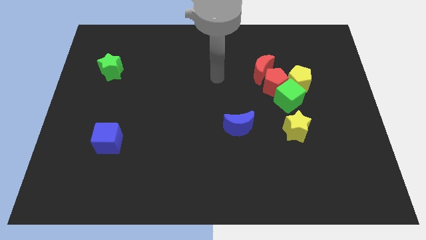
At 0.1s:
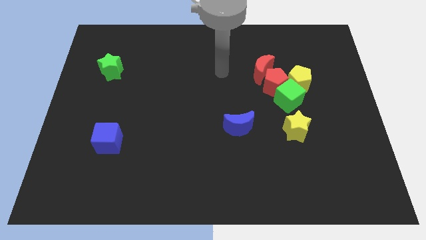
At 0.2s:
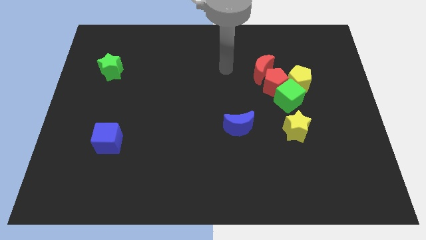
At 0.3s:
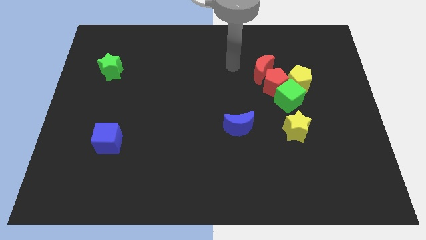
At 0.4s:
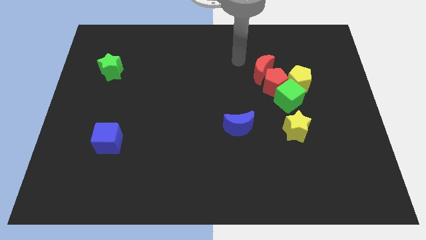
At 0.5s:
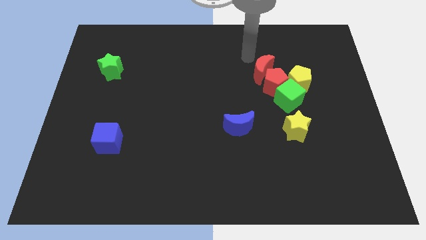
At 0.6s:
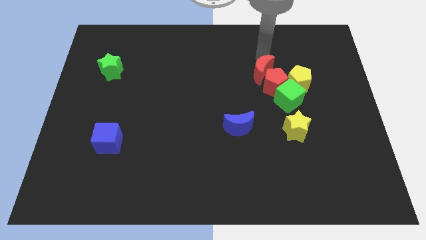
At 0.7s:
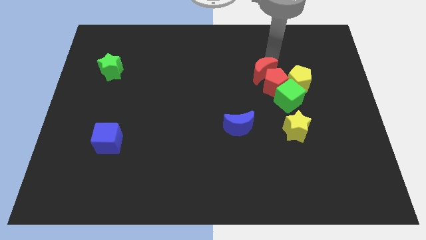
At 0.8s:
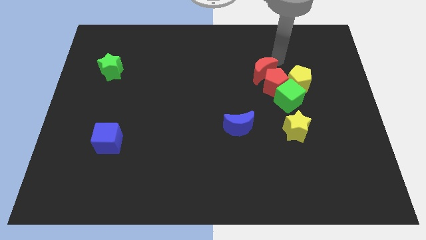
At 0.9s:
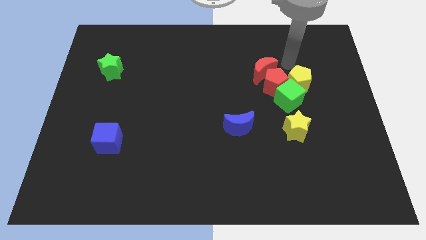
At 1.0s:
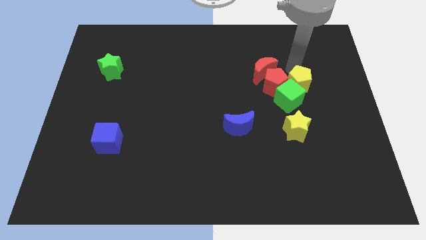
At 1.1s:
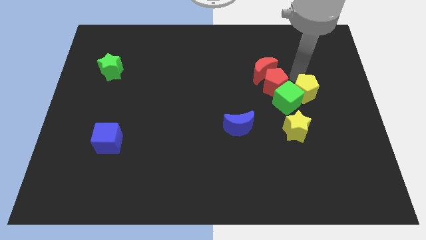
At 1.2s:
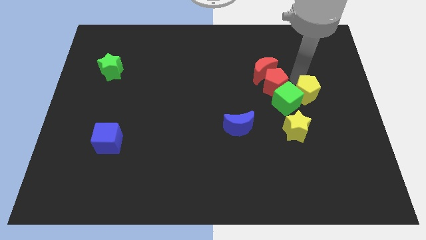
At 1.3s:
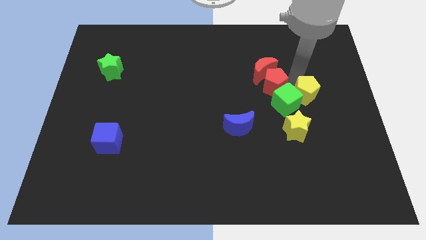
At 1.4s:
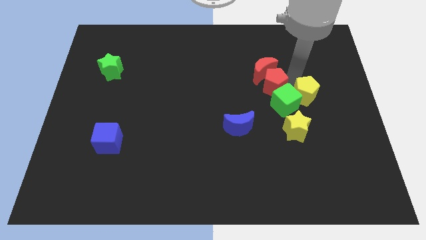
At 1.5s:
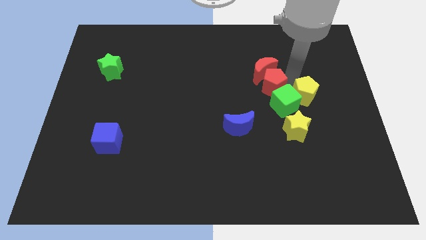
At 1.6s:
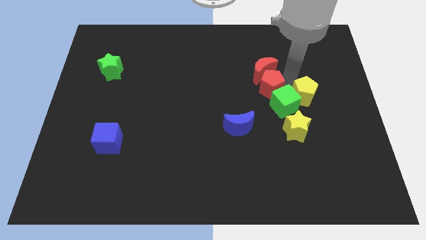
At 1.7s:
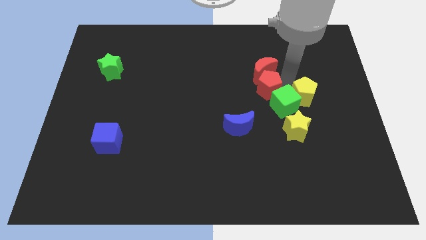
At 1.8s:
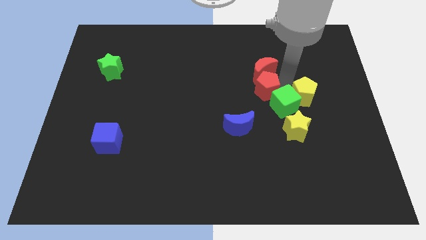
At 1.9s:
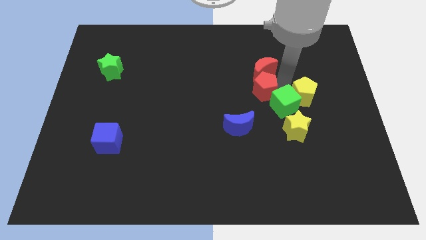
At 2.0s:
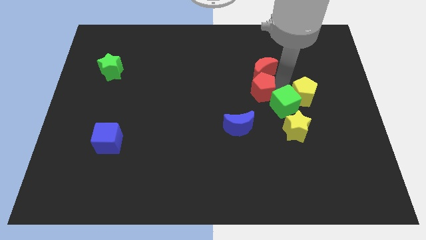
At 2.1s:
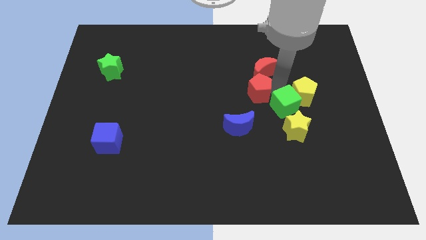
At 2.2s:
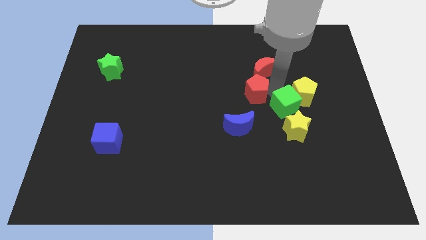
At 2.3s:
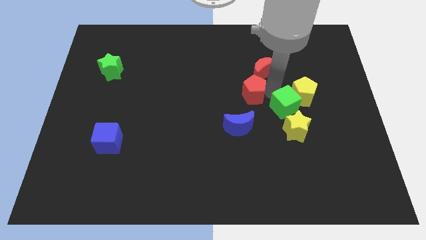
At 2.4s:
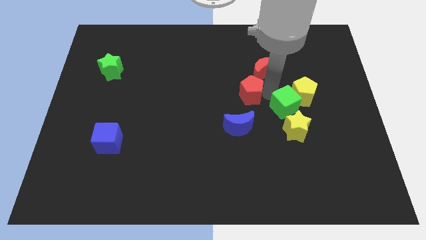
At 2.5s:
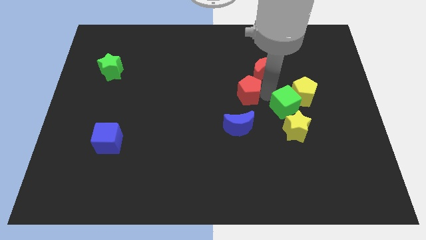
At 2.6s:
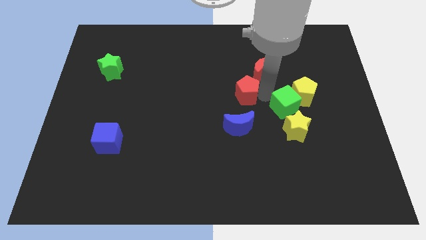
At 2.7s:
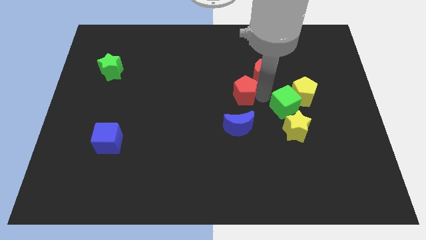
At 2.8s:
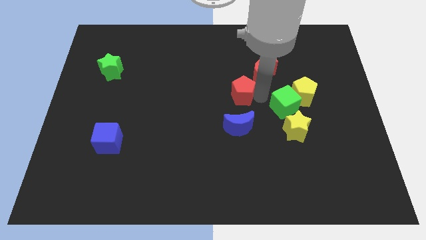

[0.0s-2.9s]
move the red pentagon away from the group

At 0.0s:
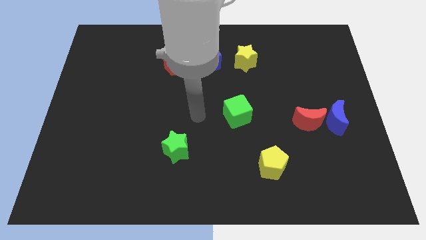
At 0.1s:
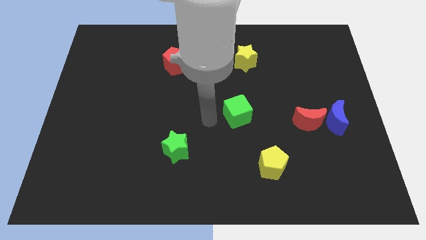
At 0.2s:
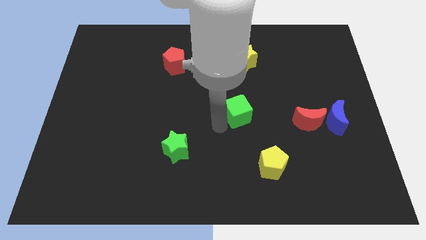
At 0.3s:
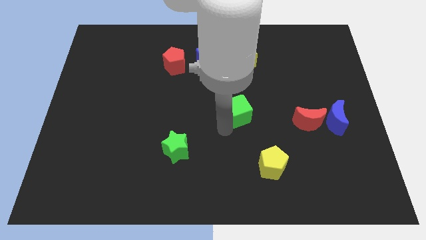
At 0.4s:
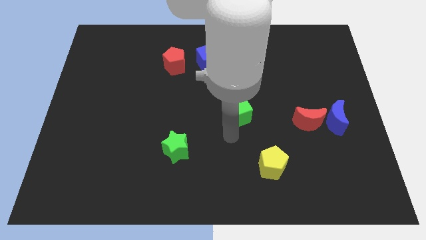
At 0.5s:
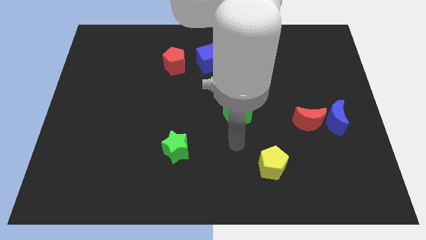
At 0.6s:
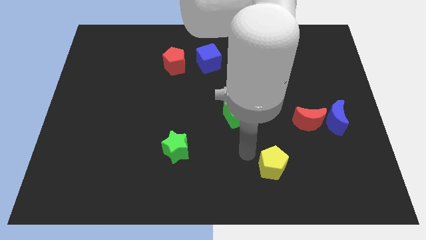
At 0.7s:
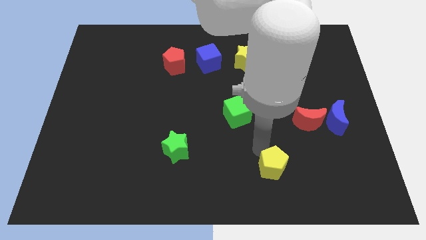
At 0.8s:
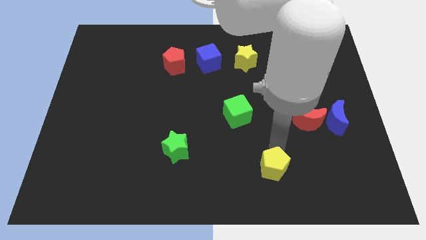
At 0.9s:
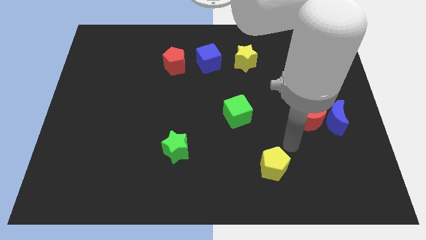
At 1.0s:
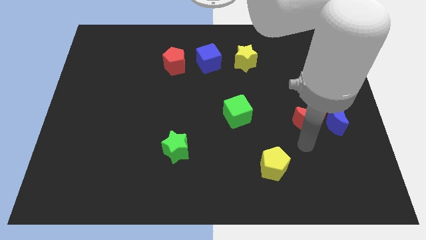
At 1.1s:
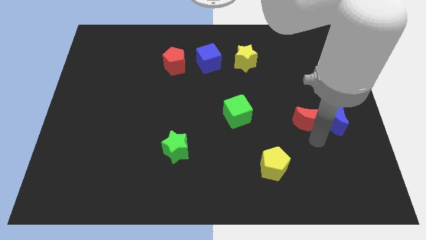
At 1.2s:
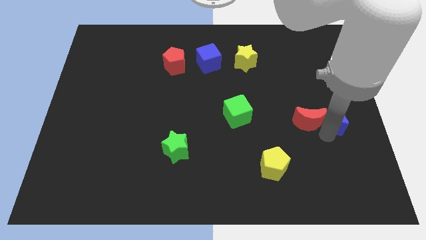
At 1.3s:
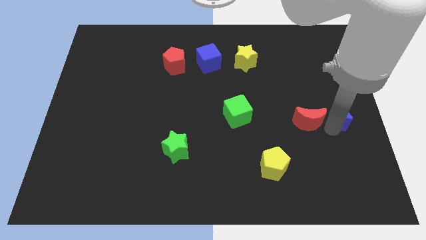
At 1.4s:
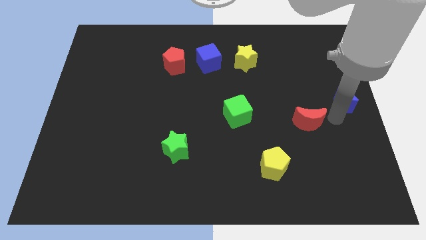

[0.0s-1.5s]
move the red moon away from the blue moon

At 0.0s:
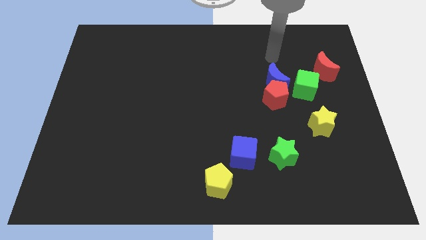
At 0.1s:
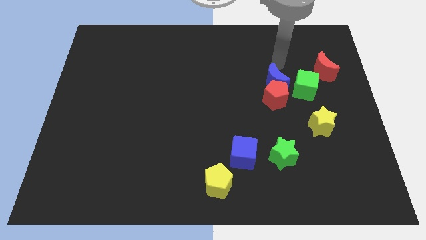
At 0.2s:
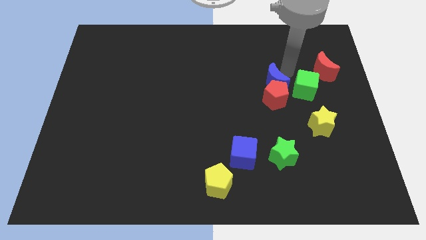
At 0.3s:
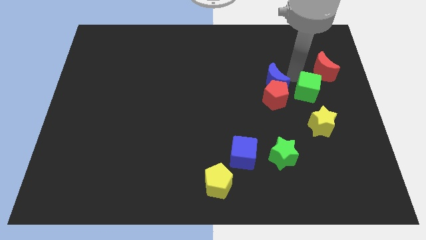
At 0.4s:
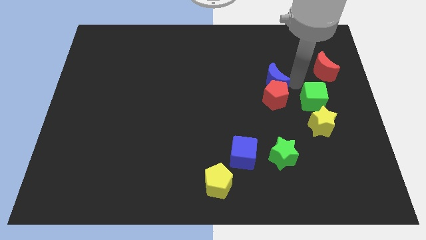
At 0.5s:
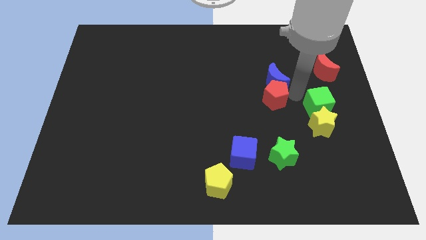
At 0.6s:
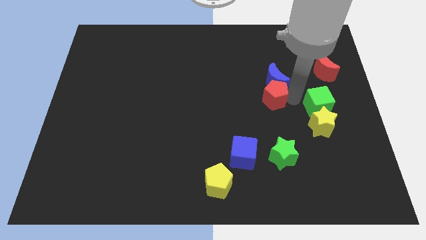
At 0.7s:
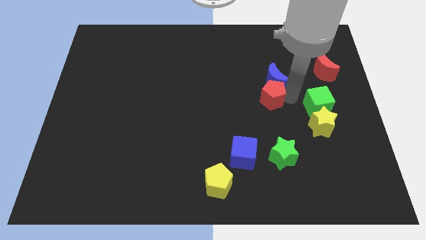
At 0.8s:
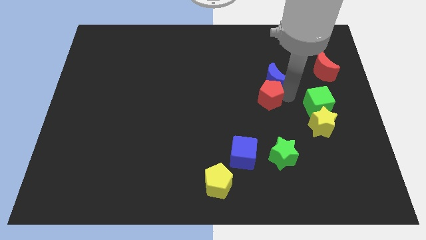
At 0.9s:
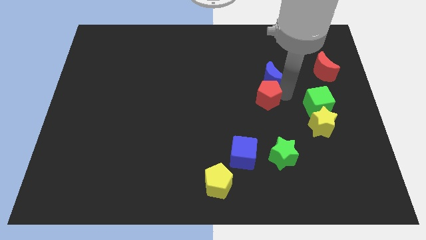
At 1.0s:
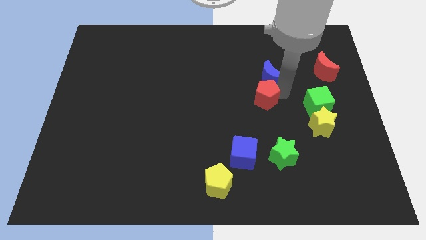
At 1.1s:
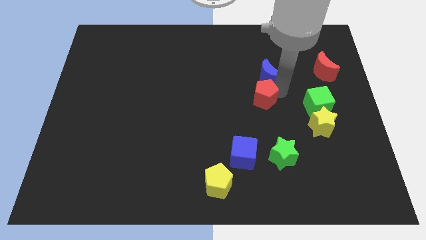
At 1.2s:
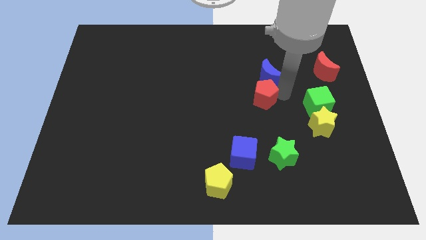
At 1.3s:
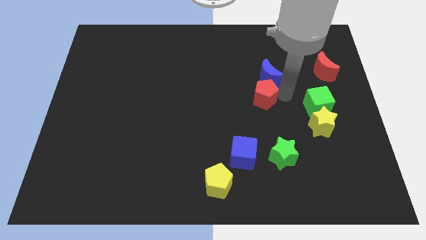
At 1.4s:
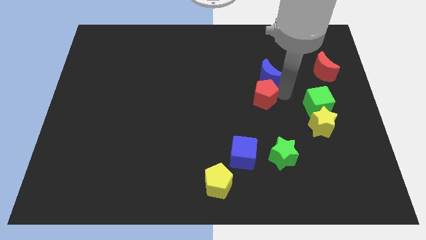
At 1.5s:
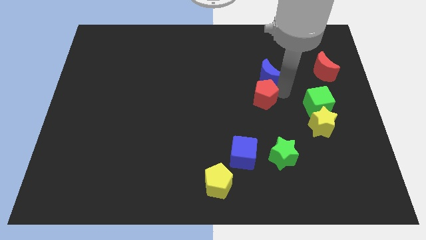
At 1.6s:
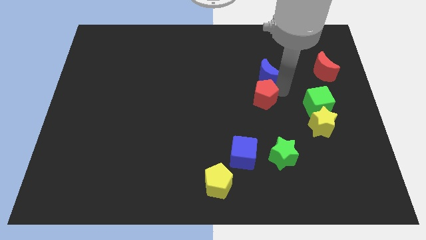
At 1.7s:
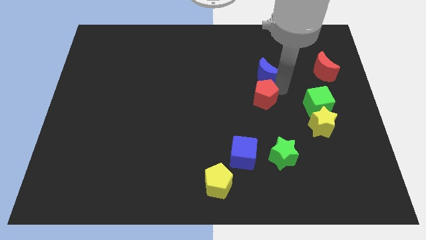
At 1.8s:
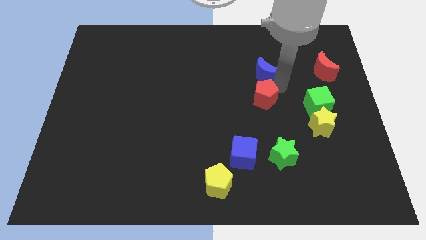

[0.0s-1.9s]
separate the blue moon from the red pentagon and green cube

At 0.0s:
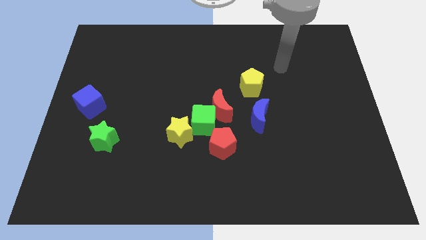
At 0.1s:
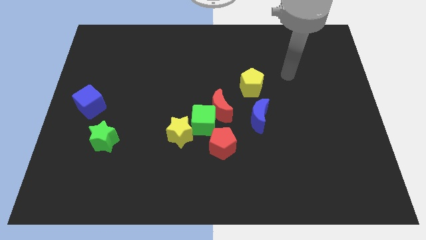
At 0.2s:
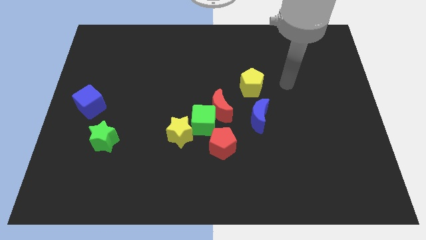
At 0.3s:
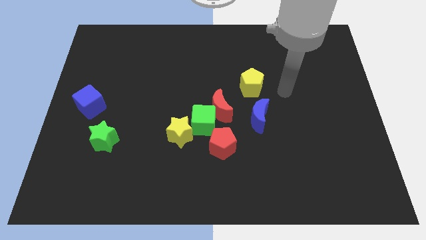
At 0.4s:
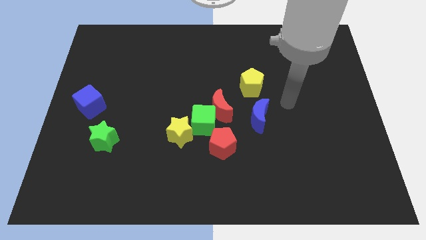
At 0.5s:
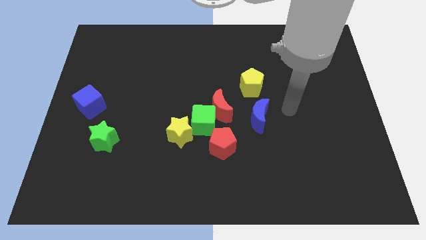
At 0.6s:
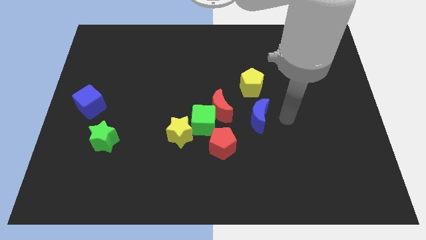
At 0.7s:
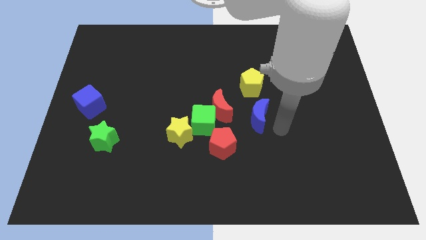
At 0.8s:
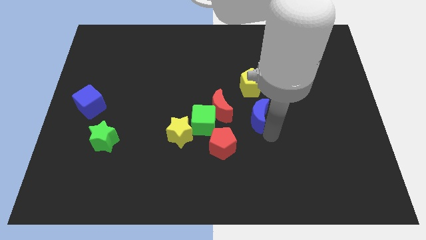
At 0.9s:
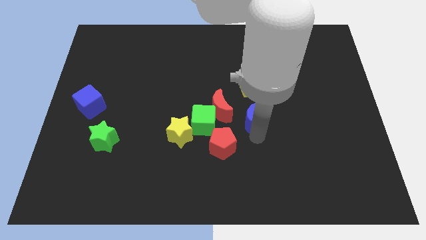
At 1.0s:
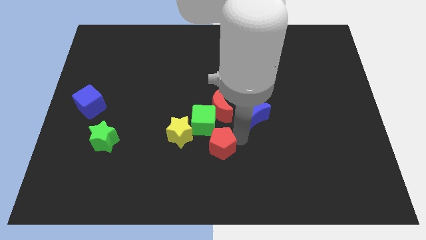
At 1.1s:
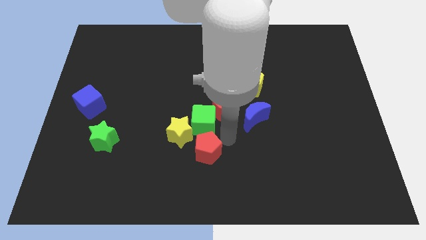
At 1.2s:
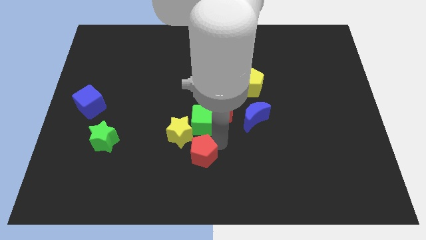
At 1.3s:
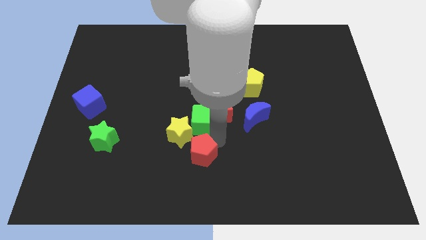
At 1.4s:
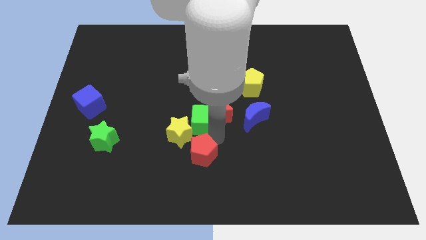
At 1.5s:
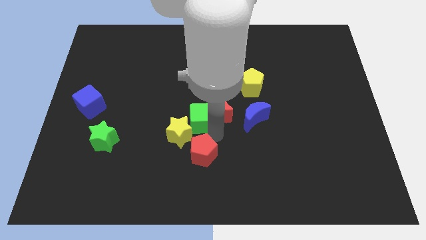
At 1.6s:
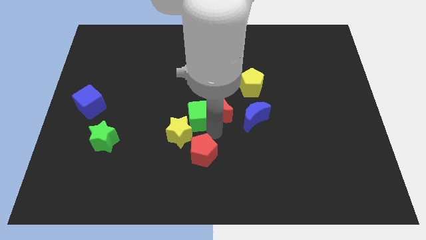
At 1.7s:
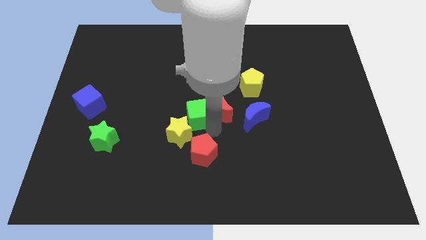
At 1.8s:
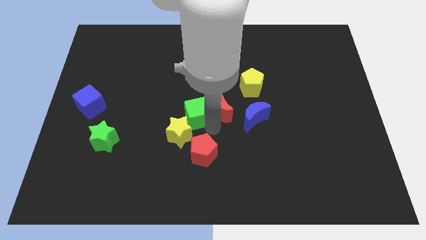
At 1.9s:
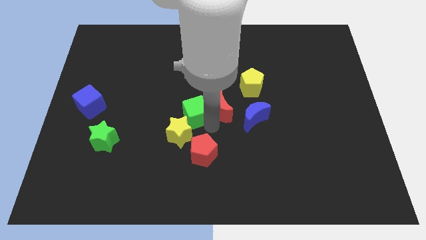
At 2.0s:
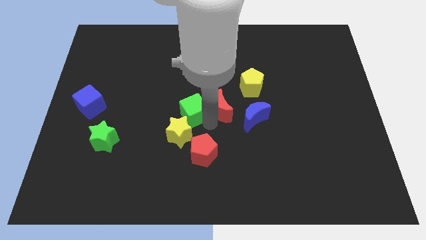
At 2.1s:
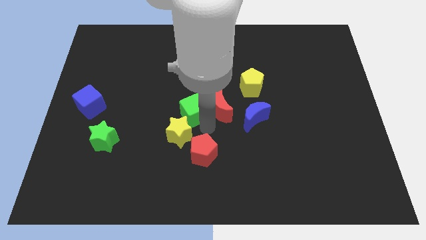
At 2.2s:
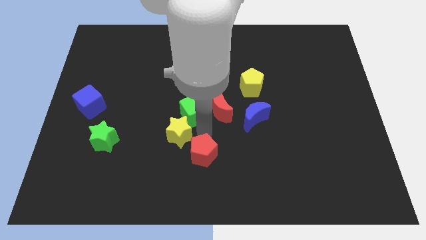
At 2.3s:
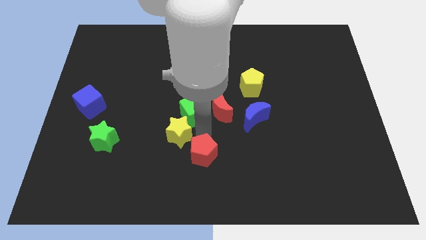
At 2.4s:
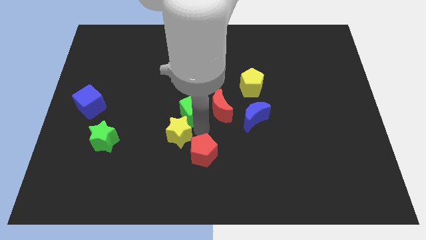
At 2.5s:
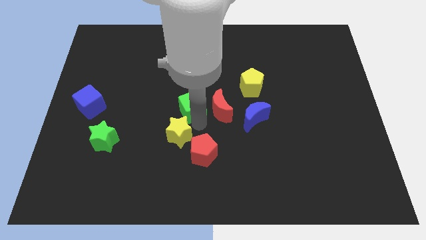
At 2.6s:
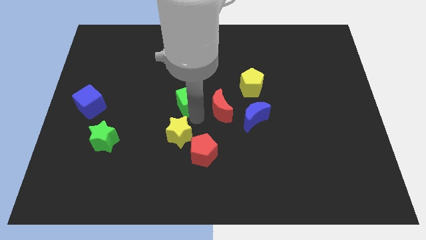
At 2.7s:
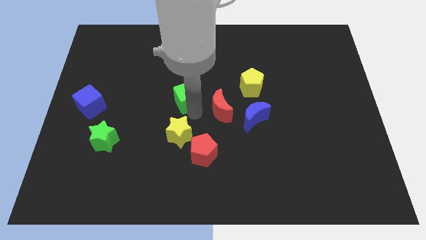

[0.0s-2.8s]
pull the green cube apart from the red moon, yellow star, and red pentagon

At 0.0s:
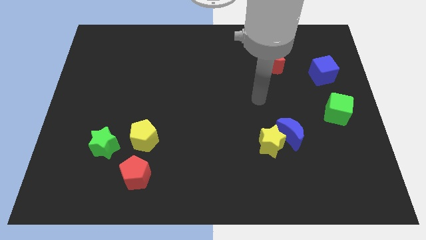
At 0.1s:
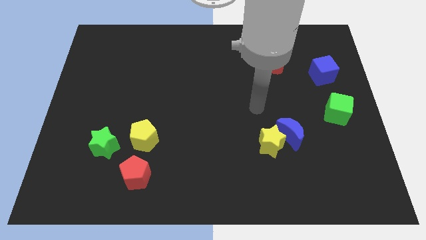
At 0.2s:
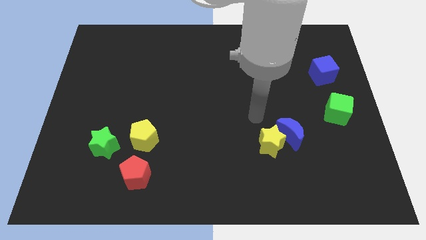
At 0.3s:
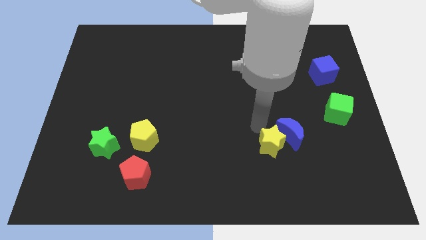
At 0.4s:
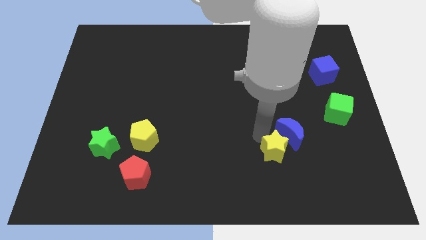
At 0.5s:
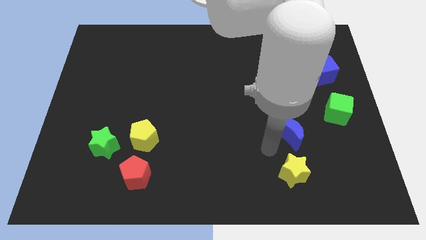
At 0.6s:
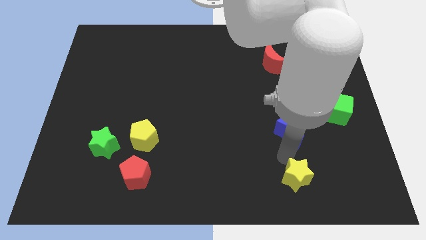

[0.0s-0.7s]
separate the blue moon from the yellow star
